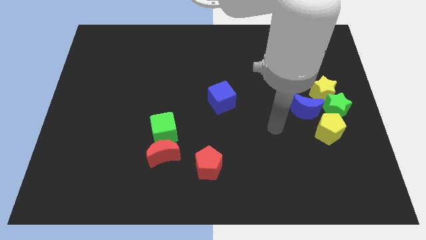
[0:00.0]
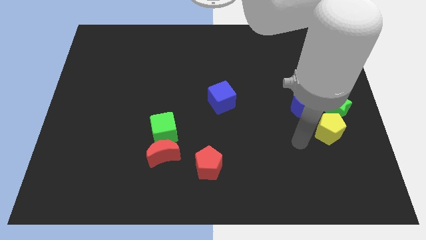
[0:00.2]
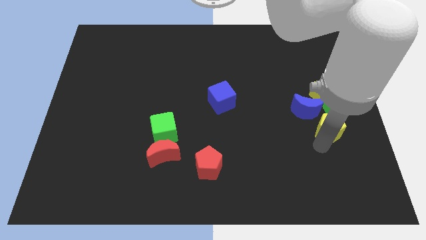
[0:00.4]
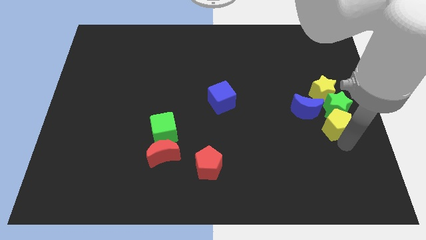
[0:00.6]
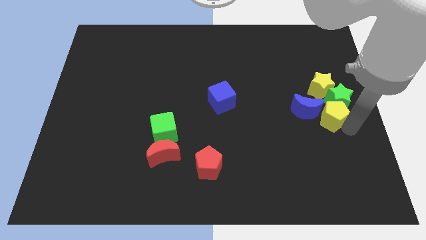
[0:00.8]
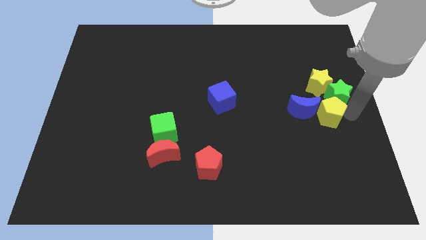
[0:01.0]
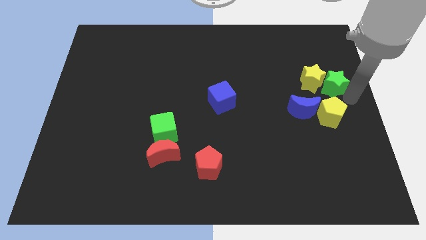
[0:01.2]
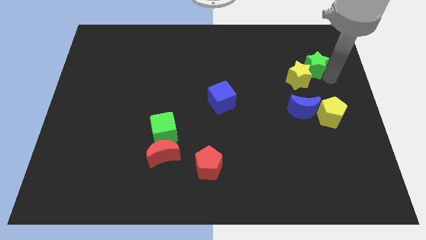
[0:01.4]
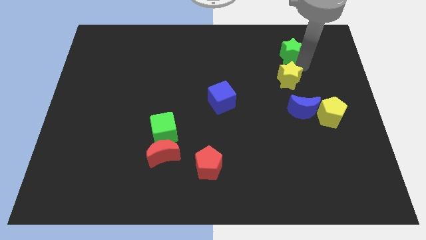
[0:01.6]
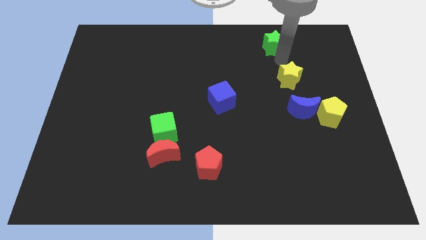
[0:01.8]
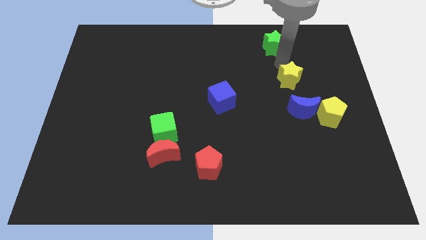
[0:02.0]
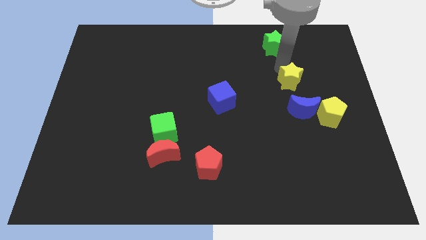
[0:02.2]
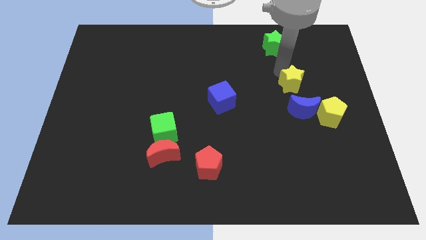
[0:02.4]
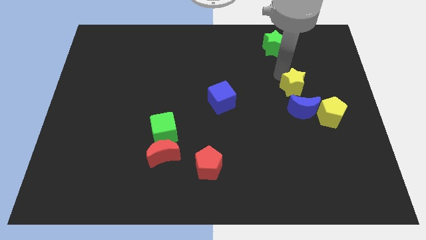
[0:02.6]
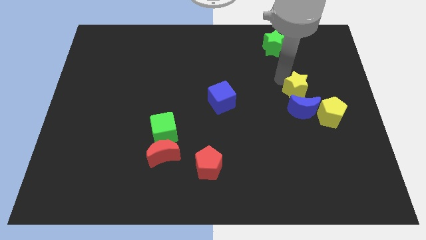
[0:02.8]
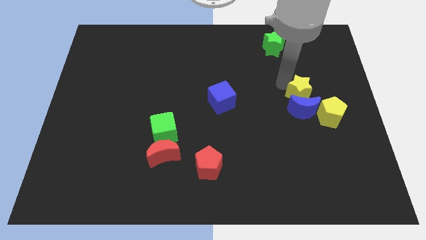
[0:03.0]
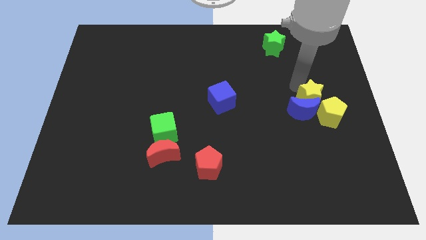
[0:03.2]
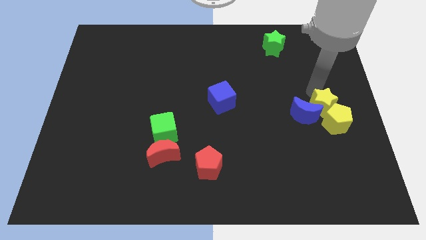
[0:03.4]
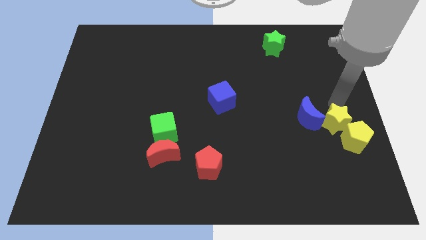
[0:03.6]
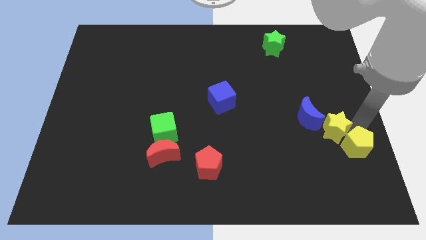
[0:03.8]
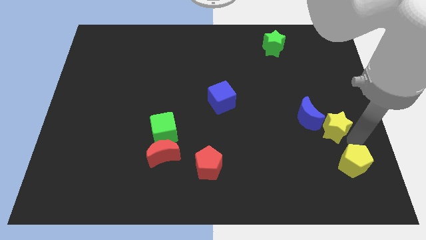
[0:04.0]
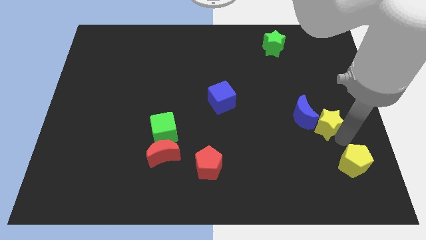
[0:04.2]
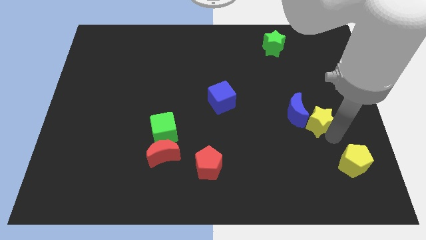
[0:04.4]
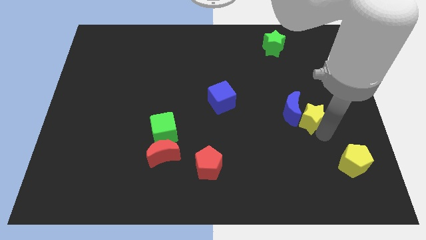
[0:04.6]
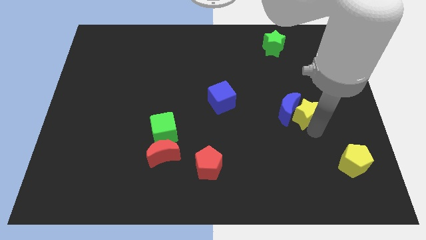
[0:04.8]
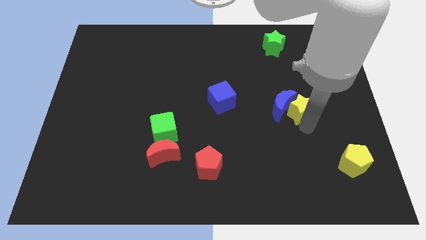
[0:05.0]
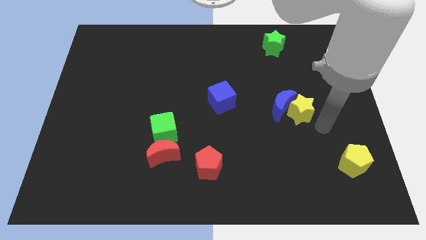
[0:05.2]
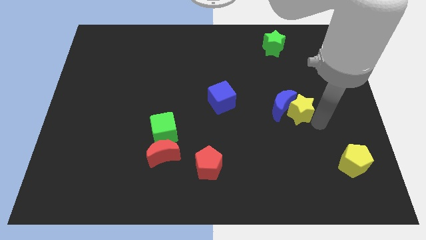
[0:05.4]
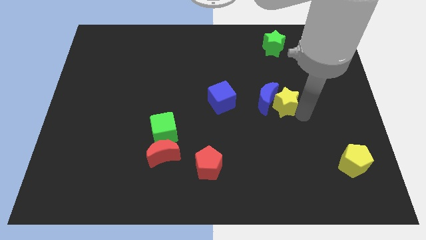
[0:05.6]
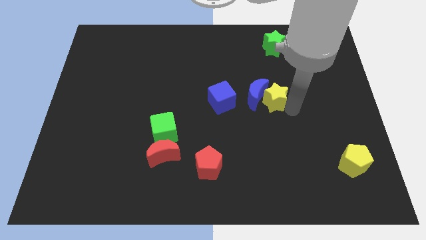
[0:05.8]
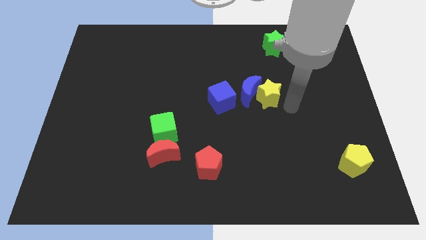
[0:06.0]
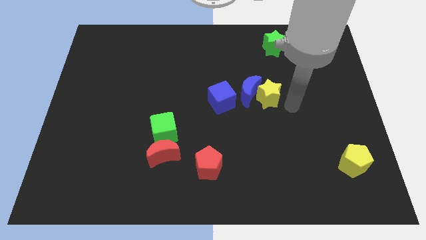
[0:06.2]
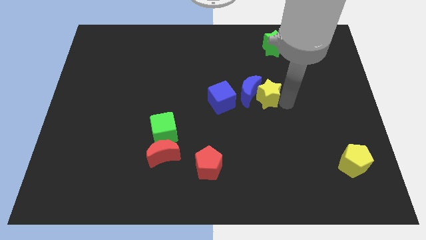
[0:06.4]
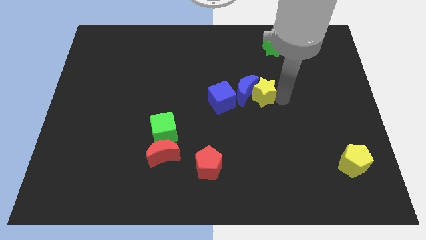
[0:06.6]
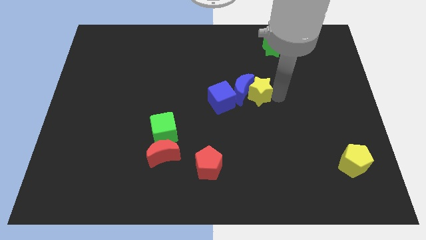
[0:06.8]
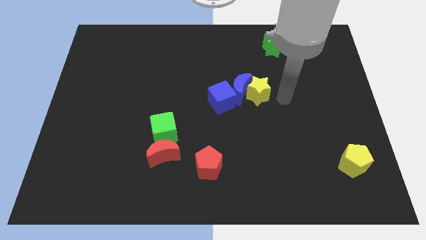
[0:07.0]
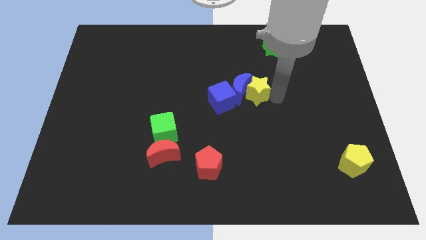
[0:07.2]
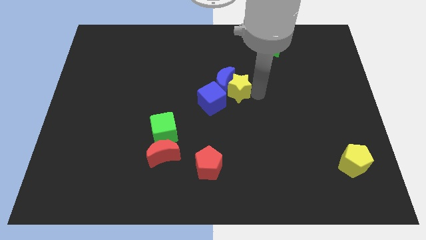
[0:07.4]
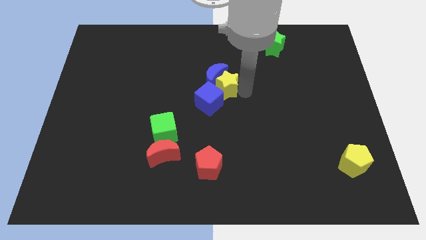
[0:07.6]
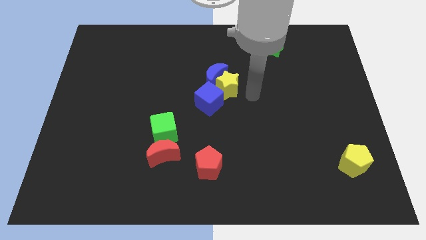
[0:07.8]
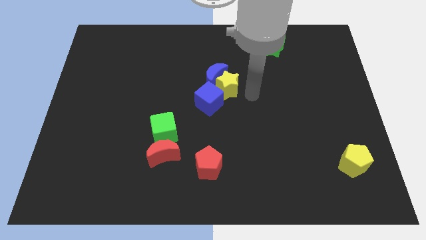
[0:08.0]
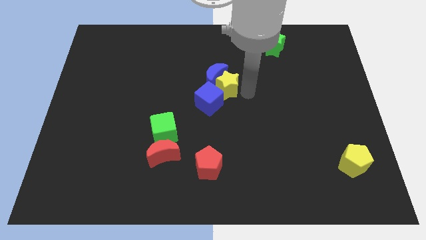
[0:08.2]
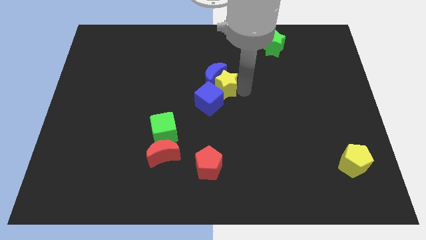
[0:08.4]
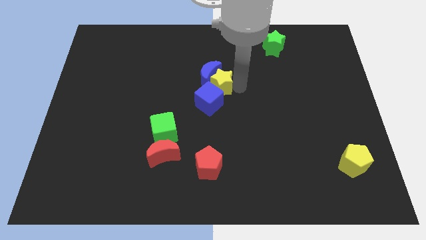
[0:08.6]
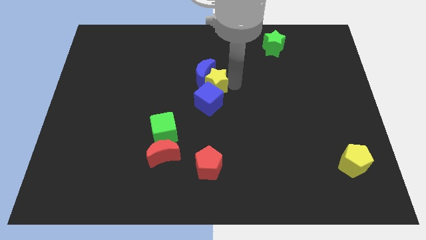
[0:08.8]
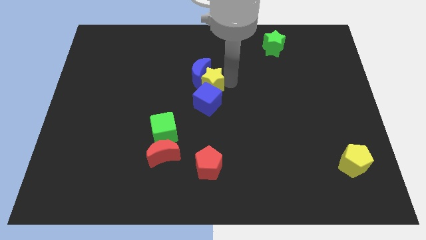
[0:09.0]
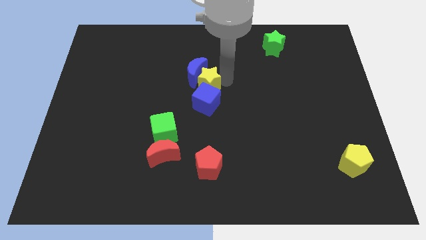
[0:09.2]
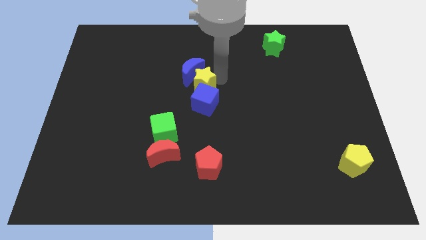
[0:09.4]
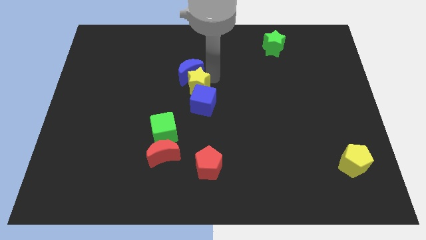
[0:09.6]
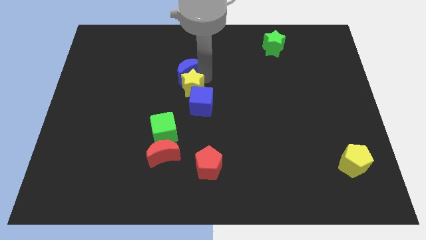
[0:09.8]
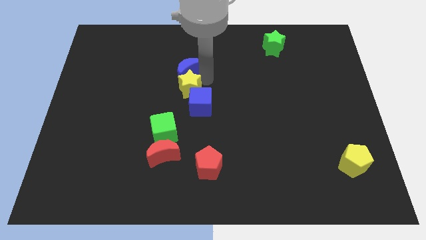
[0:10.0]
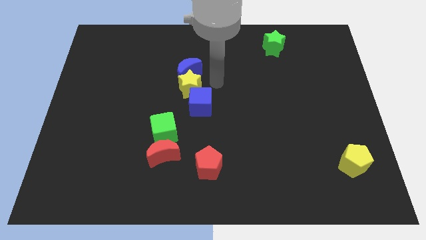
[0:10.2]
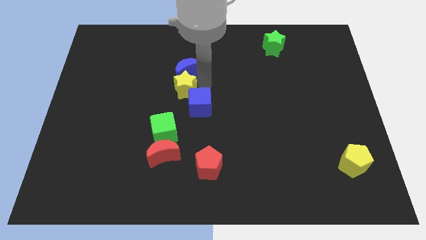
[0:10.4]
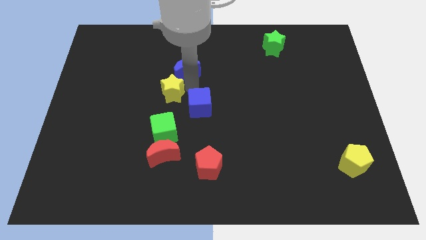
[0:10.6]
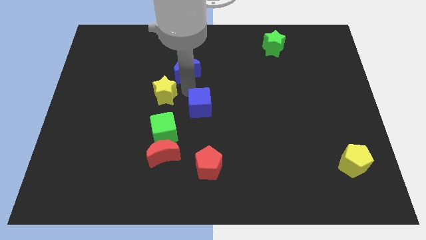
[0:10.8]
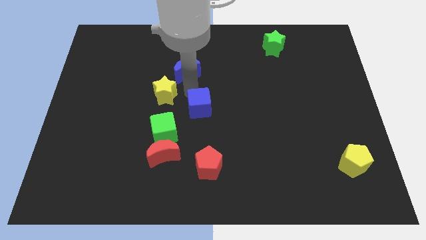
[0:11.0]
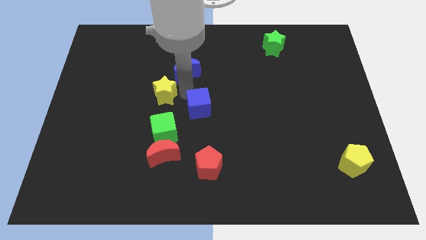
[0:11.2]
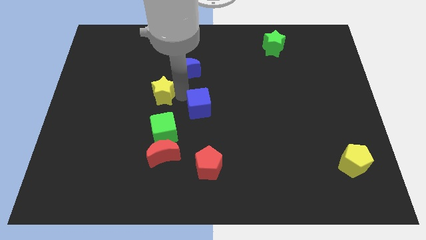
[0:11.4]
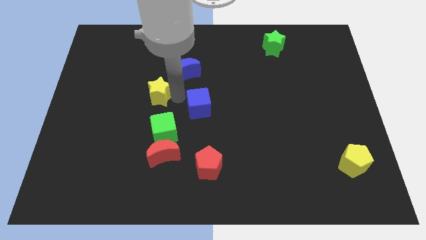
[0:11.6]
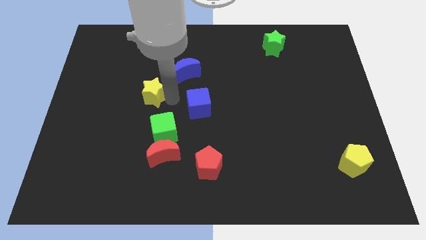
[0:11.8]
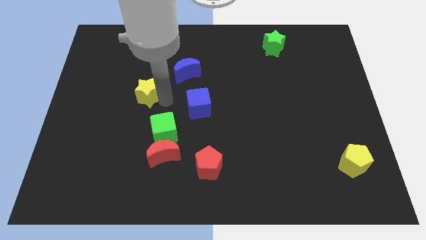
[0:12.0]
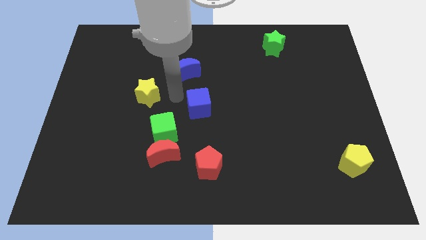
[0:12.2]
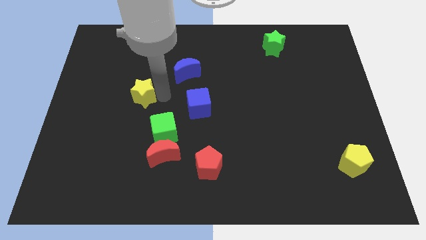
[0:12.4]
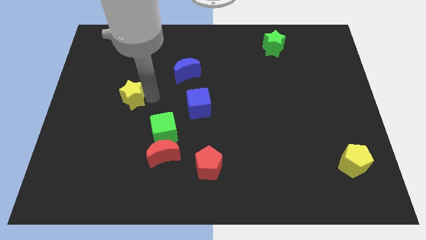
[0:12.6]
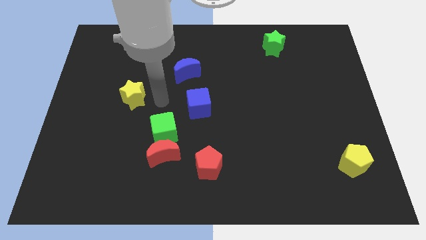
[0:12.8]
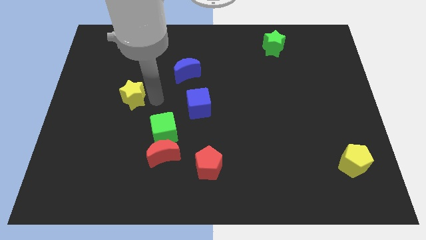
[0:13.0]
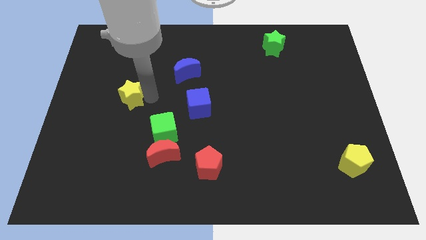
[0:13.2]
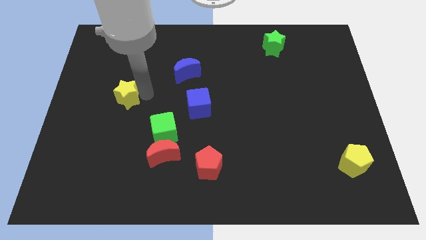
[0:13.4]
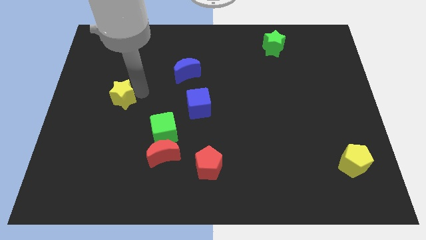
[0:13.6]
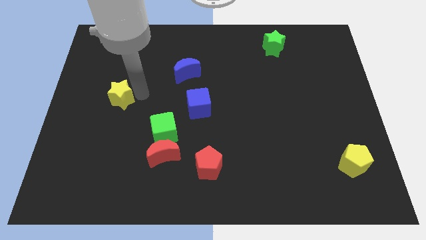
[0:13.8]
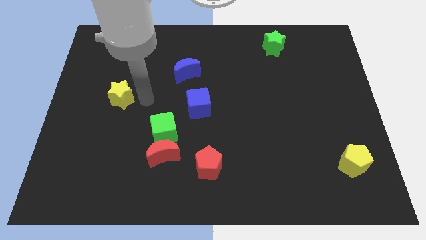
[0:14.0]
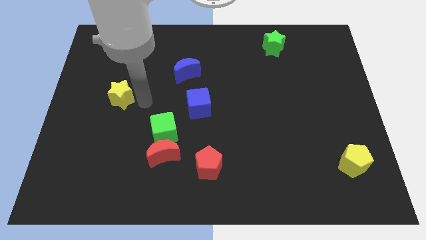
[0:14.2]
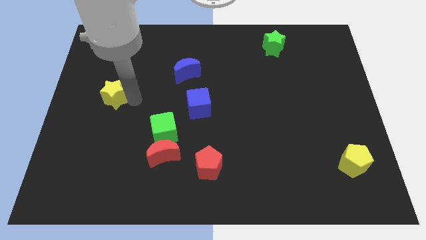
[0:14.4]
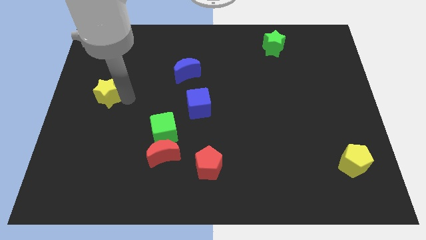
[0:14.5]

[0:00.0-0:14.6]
push the yellow star to the left side of the board
